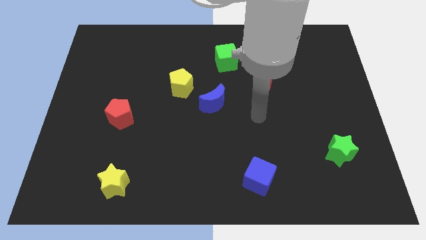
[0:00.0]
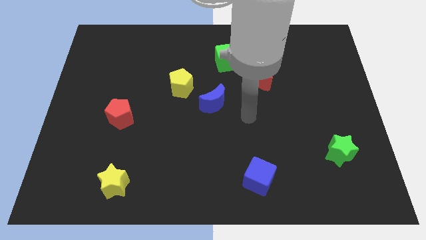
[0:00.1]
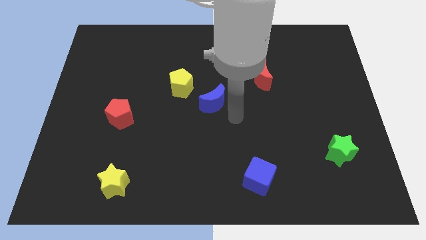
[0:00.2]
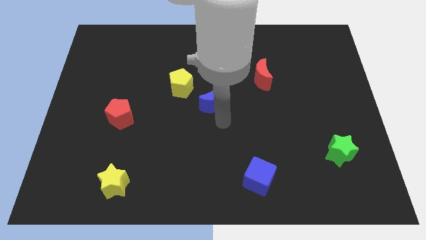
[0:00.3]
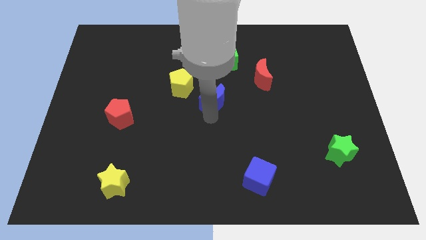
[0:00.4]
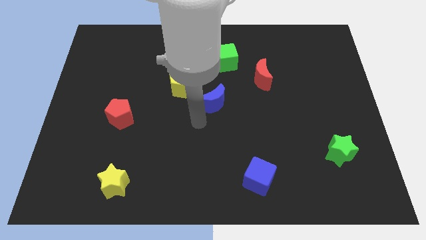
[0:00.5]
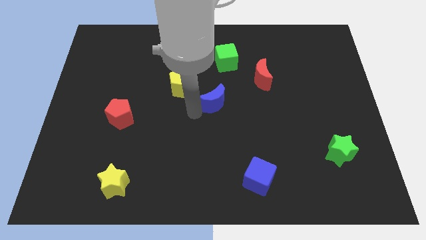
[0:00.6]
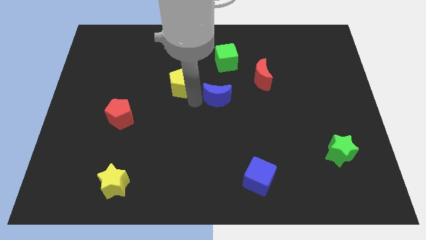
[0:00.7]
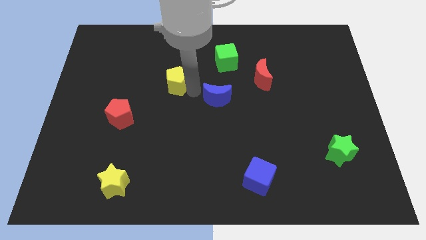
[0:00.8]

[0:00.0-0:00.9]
separate the blue moon from the yellow pentagon

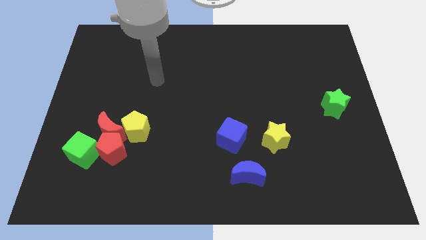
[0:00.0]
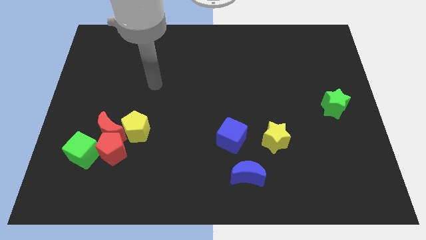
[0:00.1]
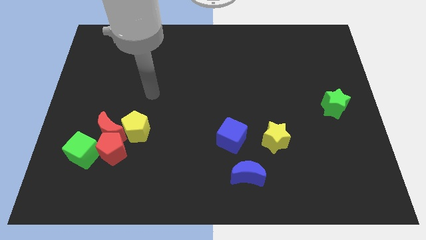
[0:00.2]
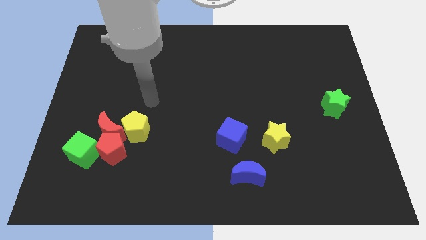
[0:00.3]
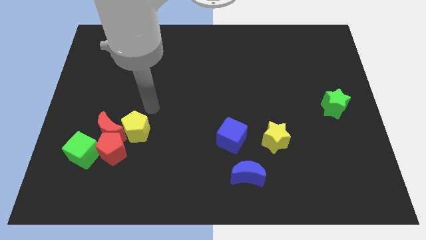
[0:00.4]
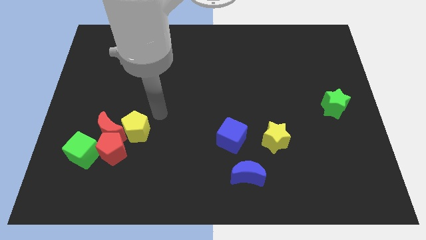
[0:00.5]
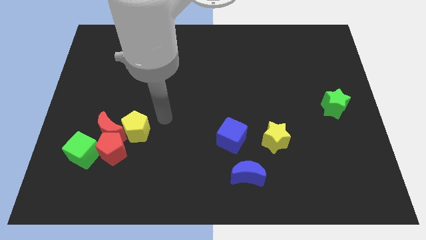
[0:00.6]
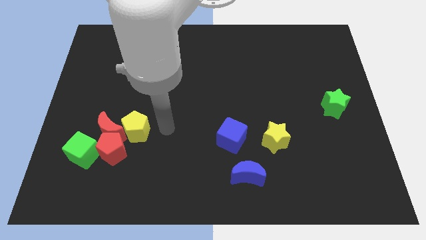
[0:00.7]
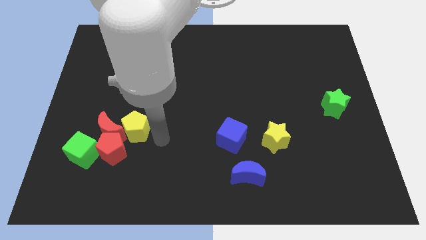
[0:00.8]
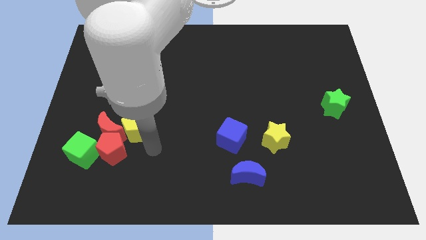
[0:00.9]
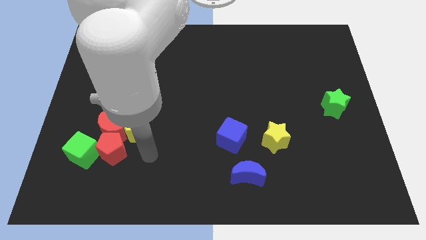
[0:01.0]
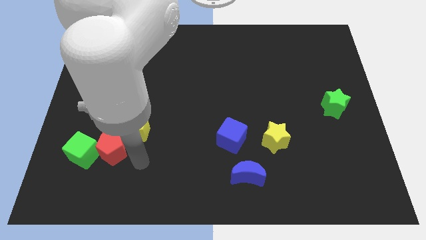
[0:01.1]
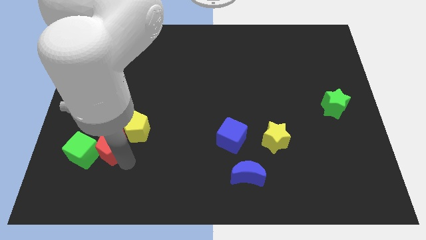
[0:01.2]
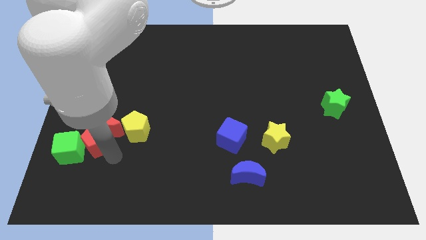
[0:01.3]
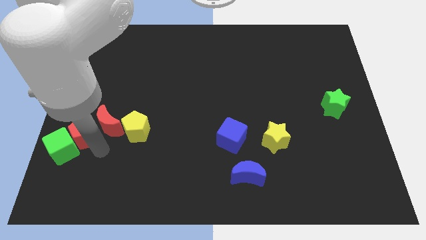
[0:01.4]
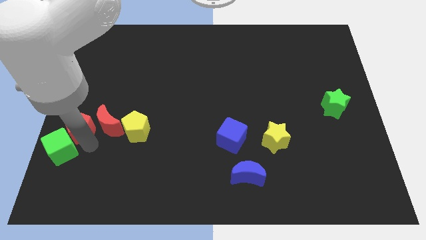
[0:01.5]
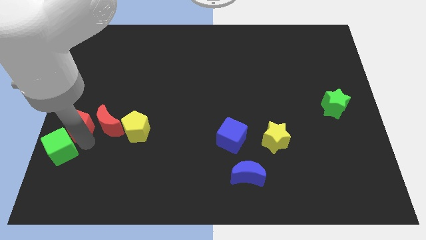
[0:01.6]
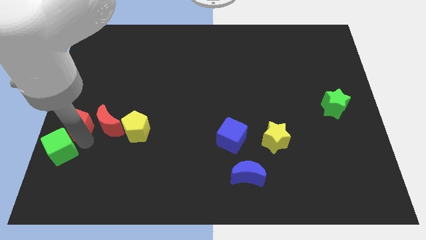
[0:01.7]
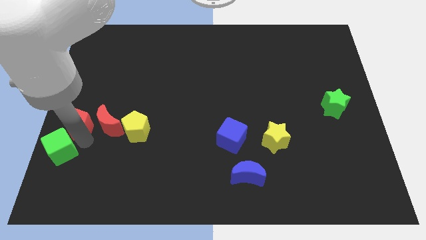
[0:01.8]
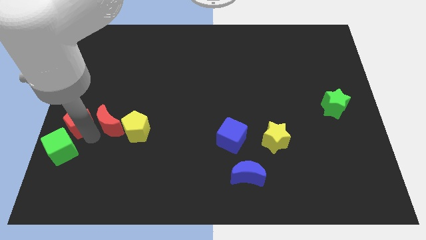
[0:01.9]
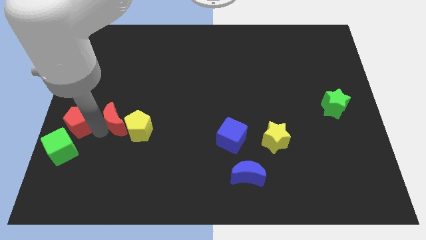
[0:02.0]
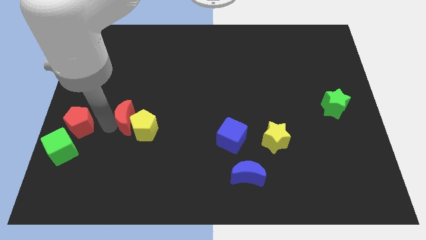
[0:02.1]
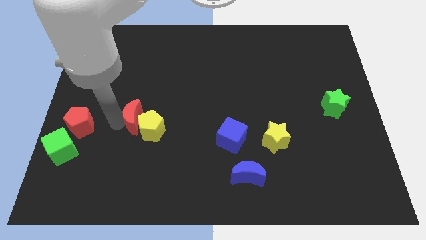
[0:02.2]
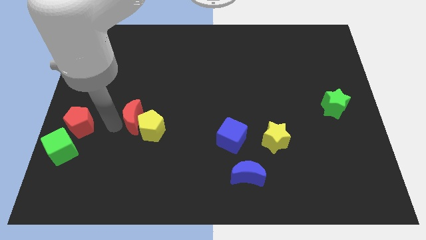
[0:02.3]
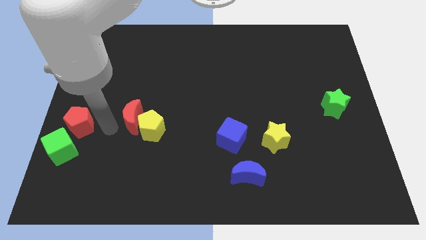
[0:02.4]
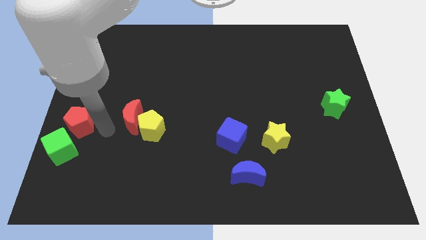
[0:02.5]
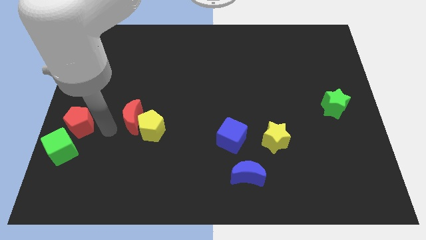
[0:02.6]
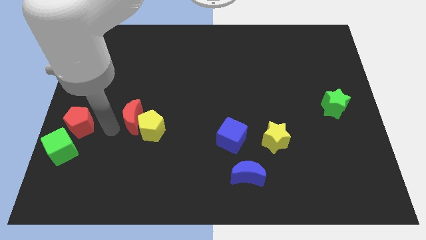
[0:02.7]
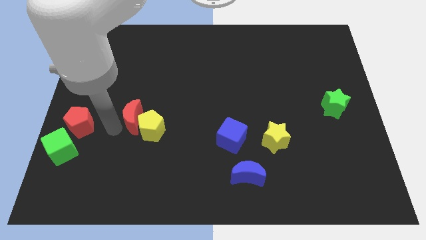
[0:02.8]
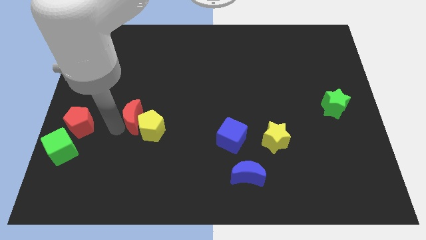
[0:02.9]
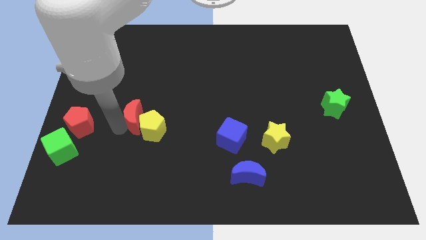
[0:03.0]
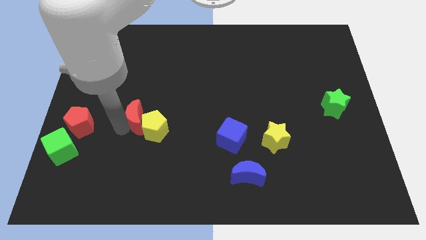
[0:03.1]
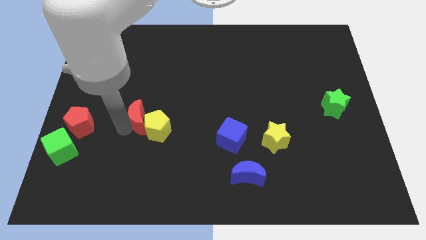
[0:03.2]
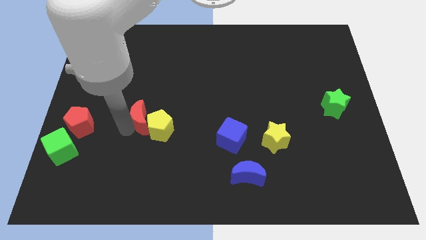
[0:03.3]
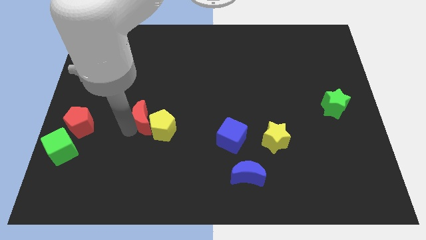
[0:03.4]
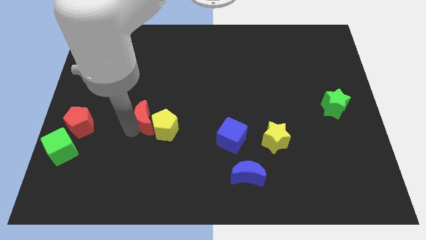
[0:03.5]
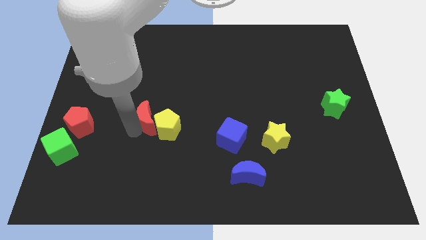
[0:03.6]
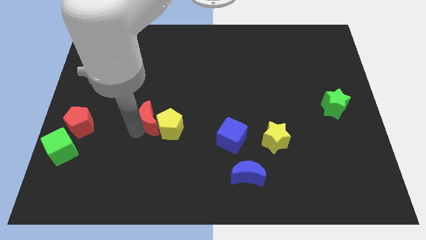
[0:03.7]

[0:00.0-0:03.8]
separate the red moon from the clump

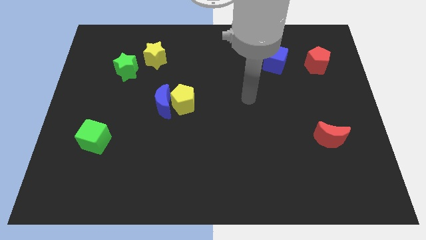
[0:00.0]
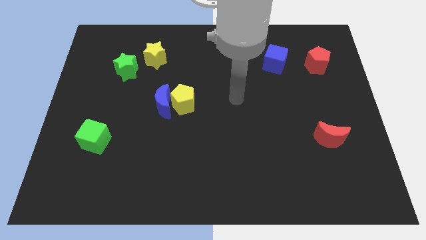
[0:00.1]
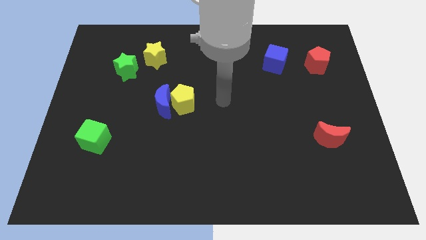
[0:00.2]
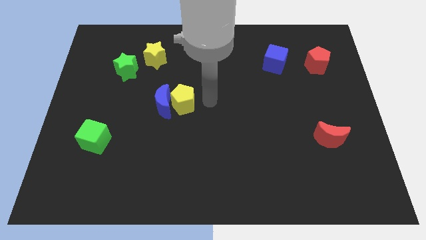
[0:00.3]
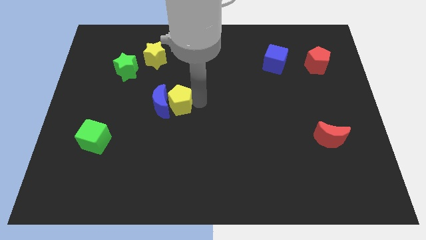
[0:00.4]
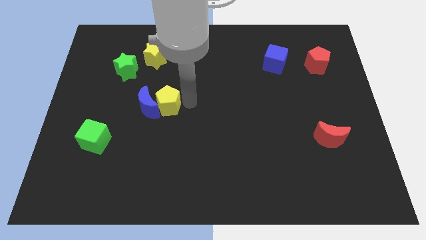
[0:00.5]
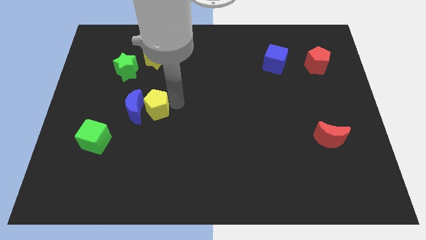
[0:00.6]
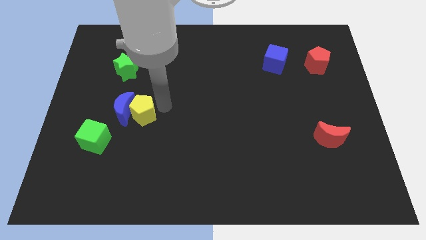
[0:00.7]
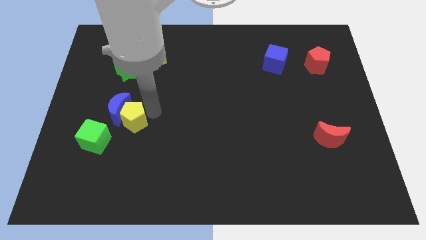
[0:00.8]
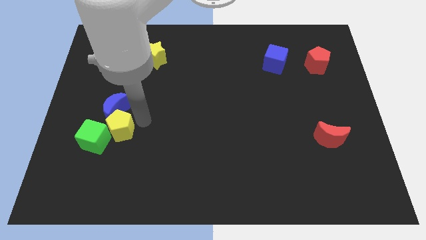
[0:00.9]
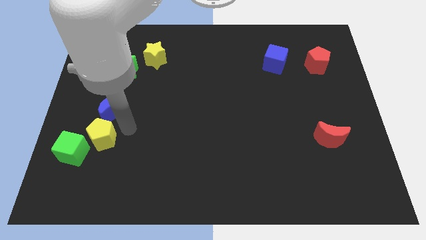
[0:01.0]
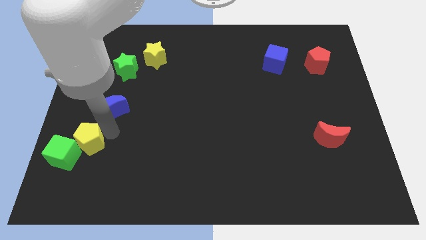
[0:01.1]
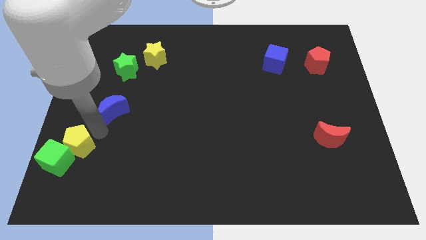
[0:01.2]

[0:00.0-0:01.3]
pull the blue moon apart from the yellow pentagon

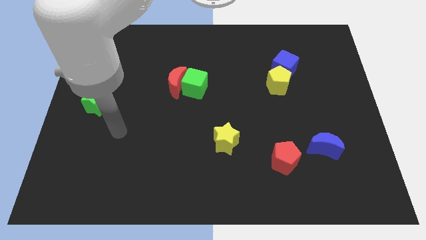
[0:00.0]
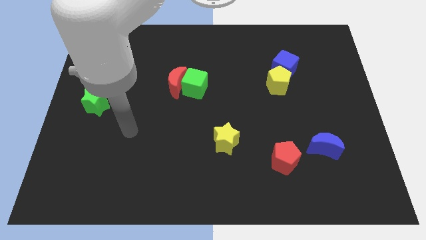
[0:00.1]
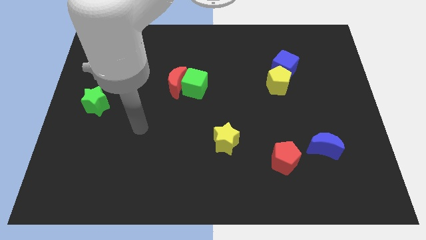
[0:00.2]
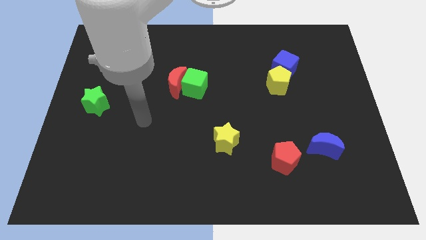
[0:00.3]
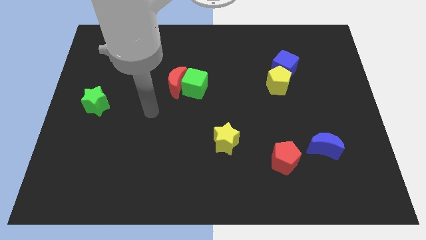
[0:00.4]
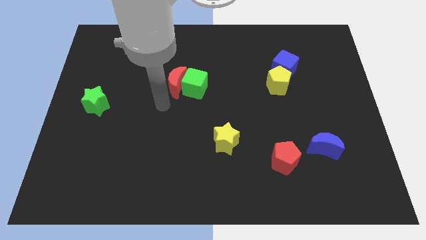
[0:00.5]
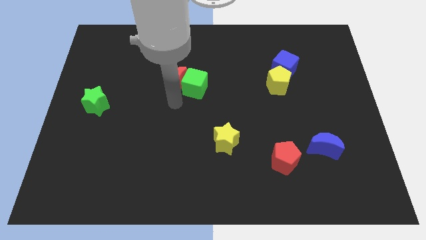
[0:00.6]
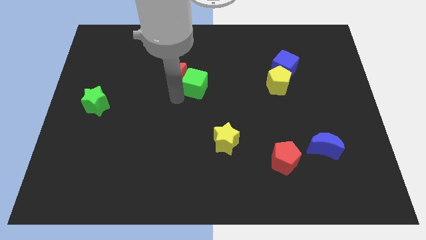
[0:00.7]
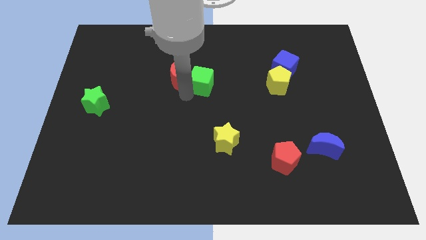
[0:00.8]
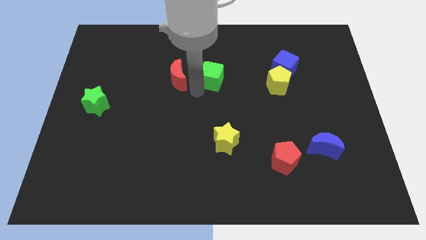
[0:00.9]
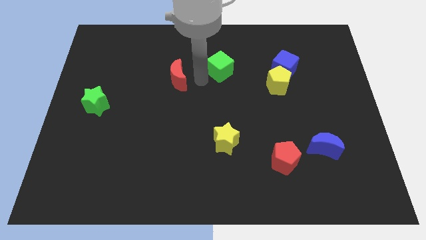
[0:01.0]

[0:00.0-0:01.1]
move the red moon away from the green cube

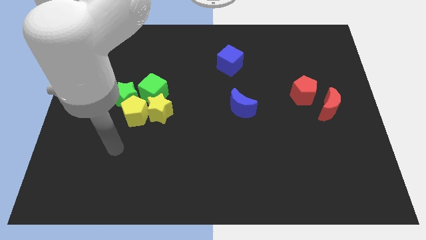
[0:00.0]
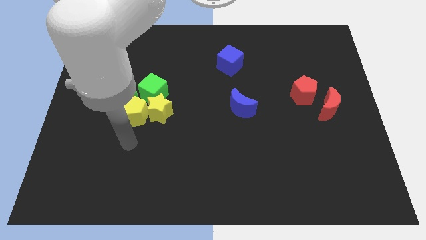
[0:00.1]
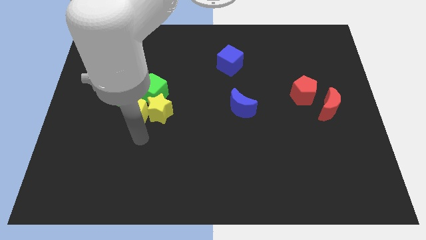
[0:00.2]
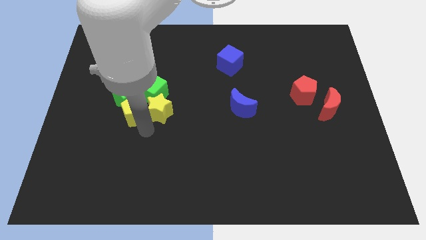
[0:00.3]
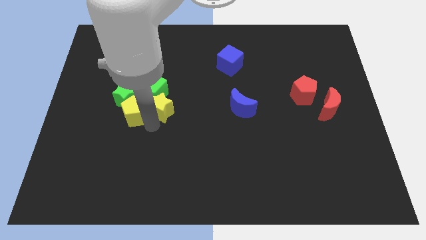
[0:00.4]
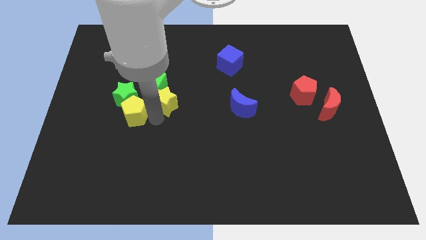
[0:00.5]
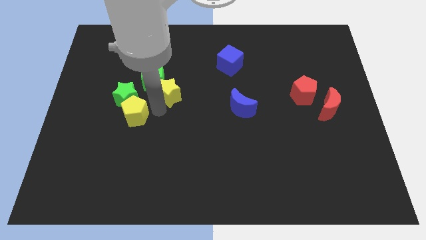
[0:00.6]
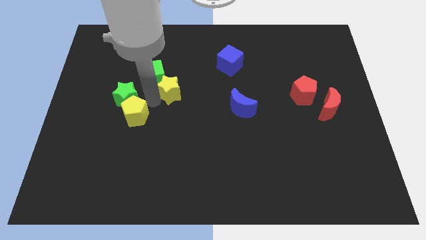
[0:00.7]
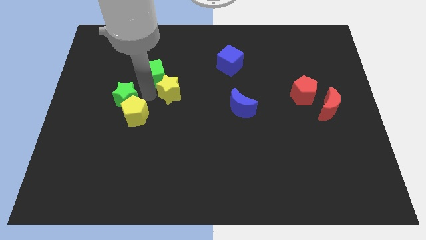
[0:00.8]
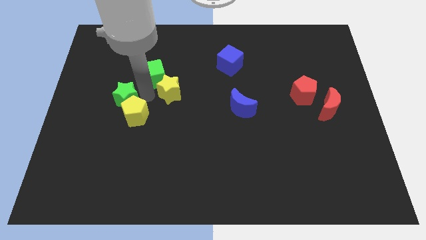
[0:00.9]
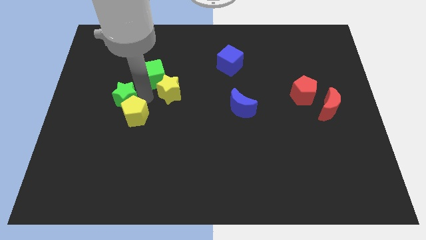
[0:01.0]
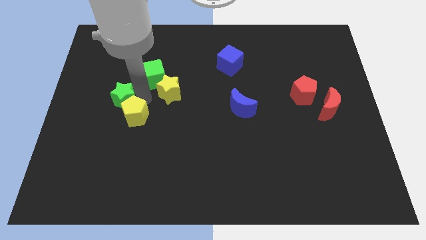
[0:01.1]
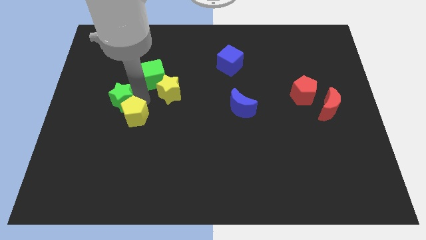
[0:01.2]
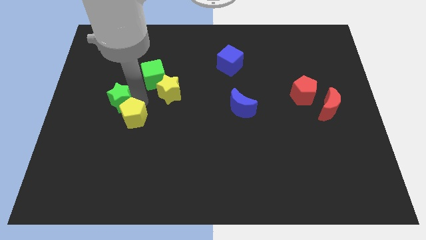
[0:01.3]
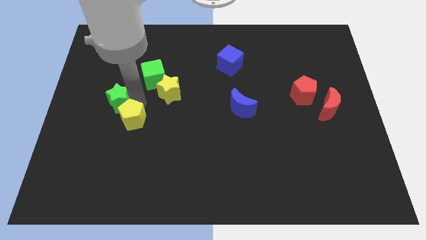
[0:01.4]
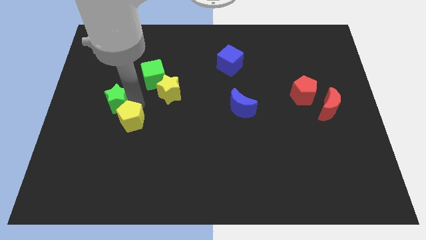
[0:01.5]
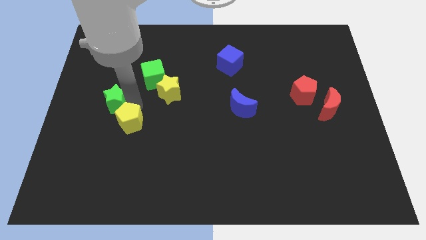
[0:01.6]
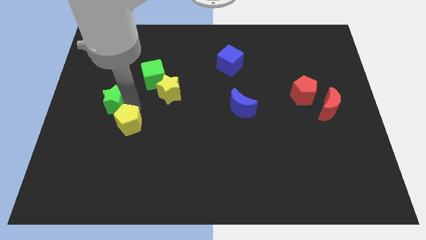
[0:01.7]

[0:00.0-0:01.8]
separate the yellow pentagon from the clump

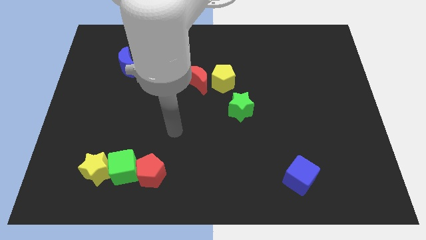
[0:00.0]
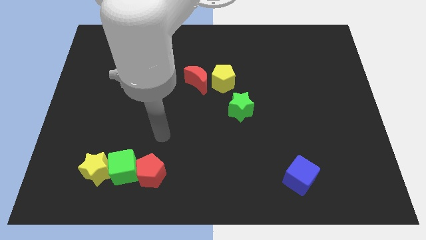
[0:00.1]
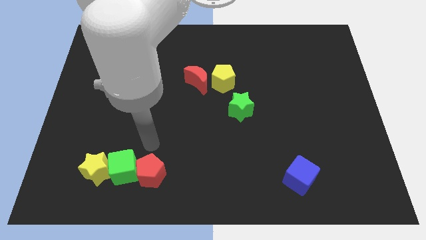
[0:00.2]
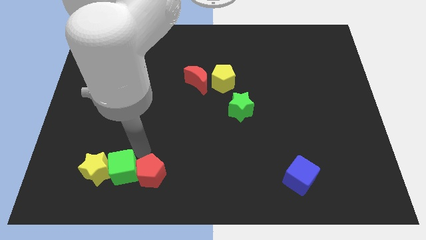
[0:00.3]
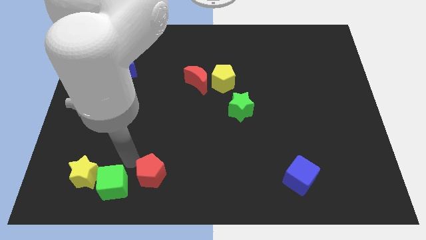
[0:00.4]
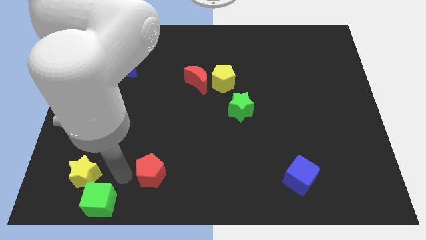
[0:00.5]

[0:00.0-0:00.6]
move the red pentagon away from the green cube

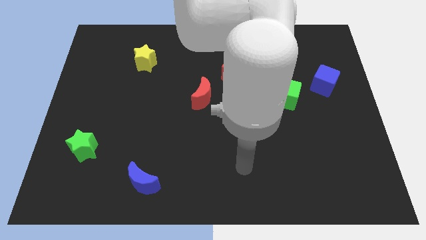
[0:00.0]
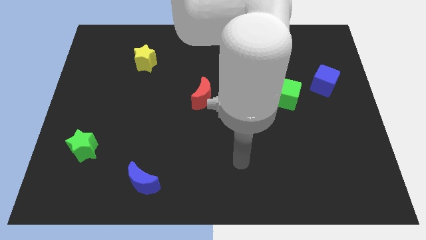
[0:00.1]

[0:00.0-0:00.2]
move the red moon away from the red pentagon
